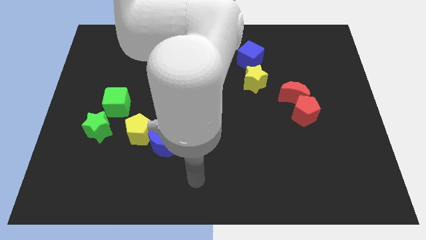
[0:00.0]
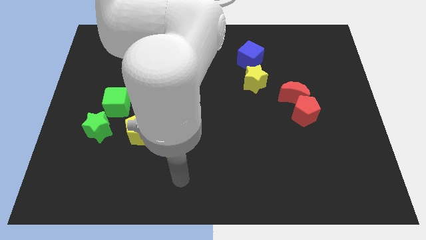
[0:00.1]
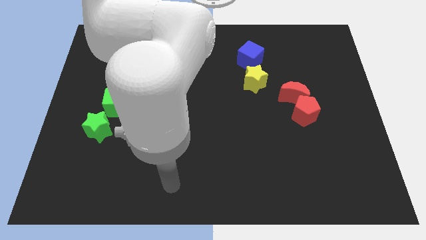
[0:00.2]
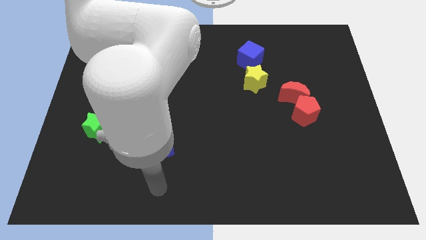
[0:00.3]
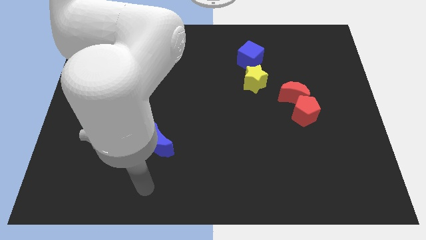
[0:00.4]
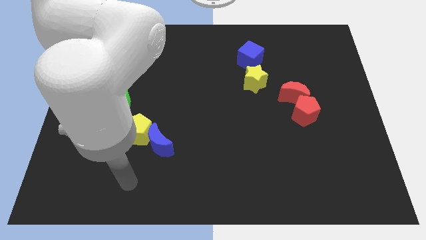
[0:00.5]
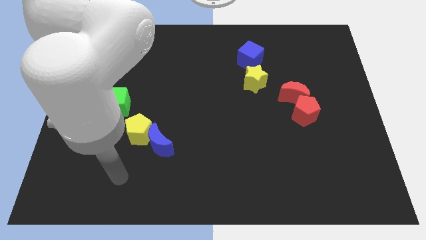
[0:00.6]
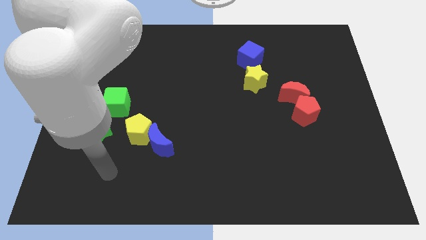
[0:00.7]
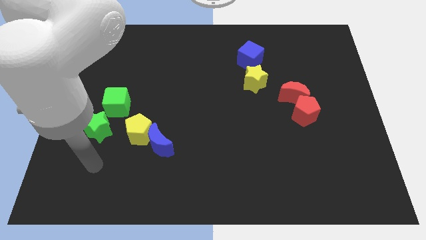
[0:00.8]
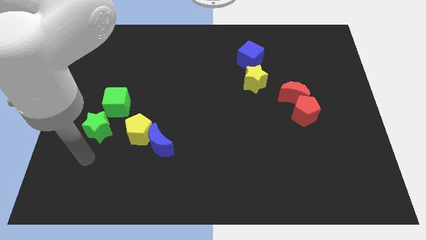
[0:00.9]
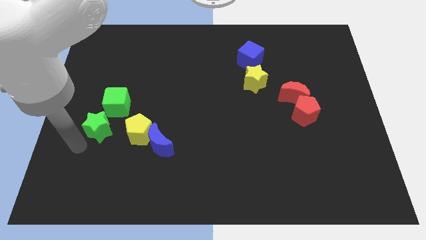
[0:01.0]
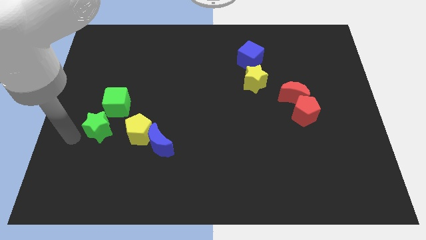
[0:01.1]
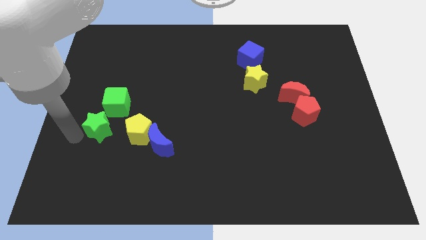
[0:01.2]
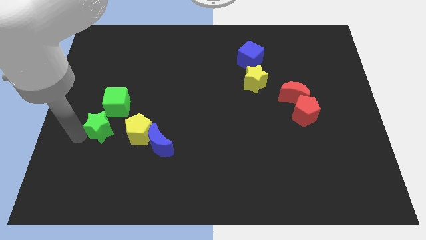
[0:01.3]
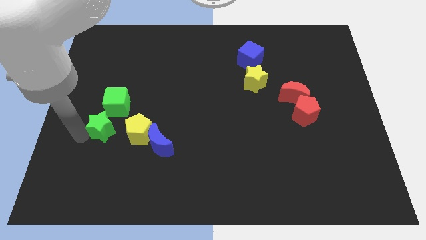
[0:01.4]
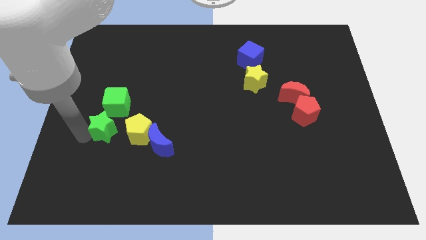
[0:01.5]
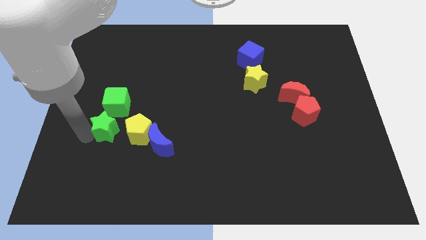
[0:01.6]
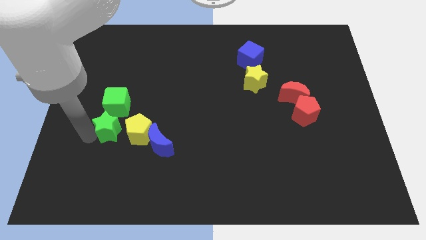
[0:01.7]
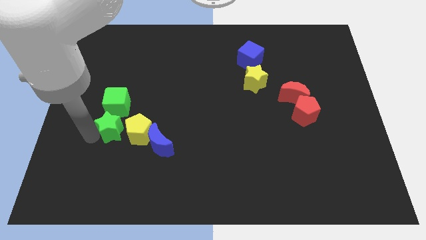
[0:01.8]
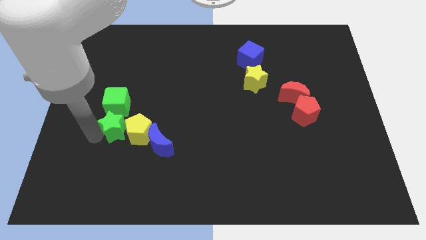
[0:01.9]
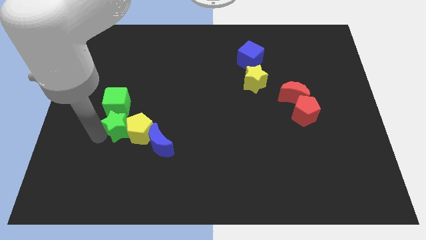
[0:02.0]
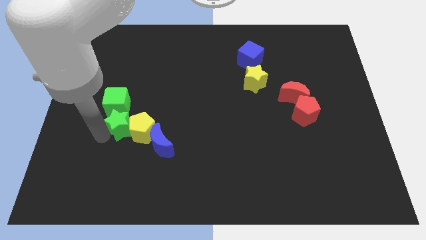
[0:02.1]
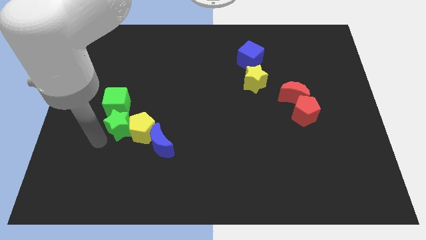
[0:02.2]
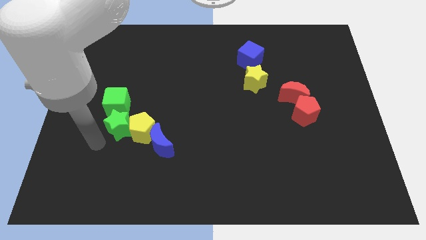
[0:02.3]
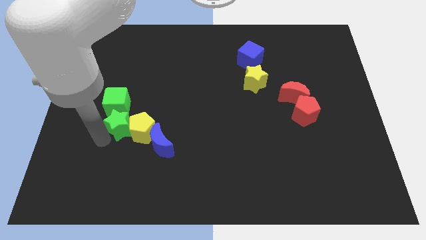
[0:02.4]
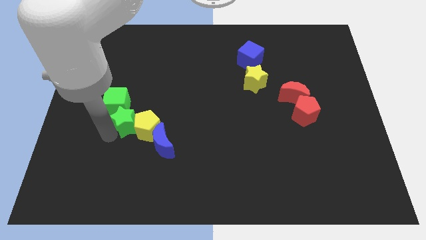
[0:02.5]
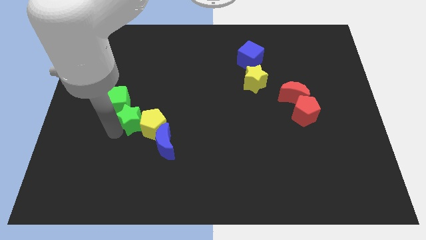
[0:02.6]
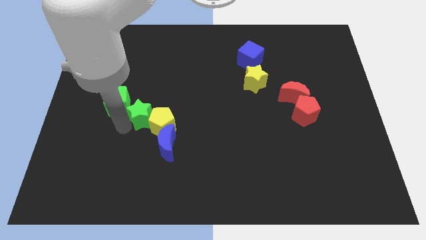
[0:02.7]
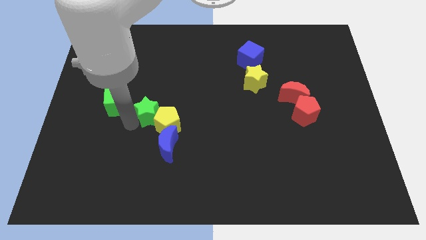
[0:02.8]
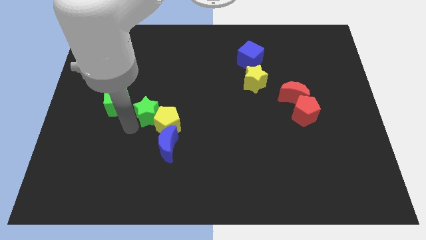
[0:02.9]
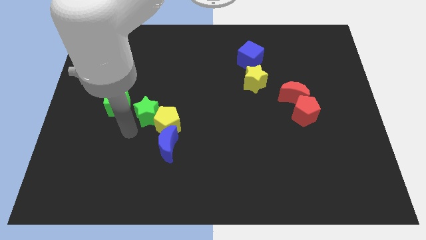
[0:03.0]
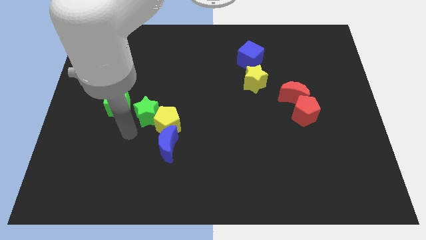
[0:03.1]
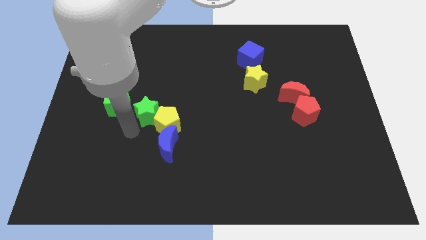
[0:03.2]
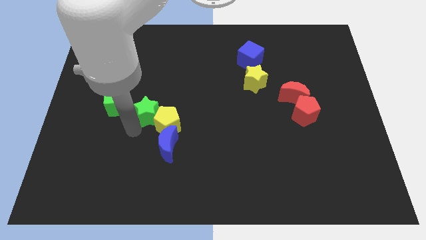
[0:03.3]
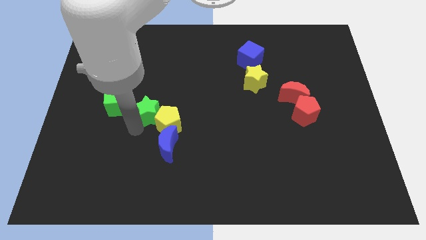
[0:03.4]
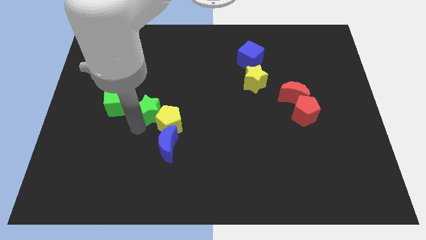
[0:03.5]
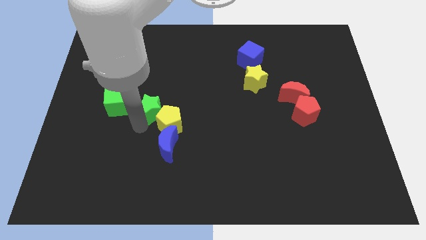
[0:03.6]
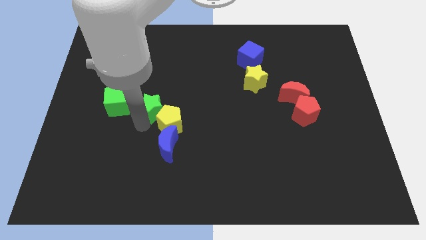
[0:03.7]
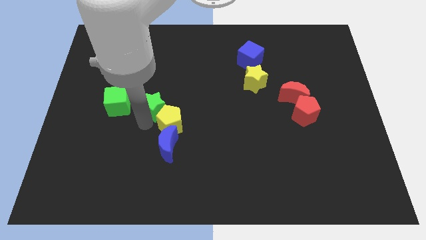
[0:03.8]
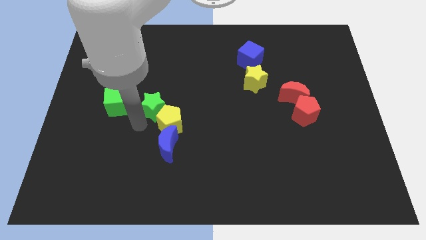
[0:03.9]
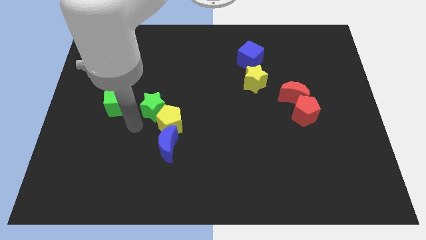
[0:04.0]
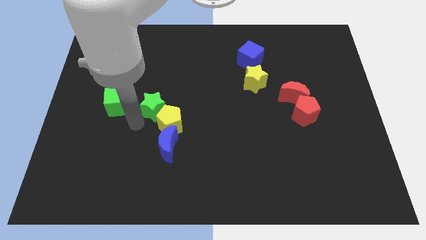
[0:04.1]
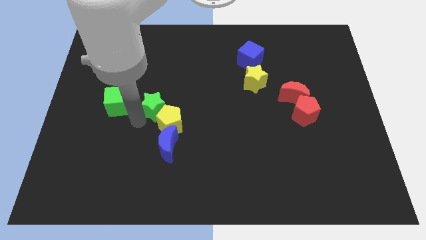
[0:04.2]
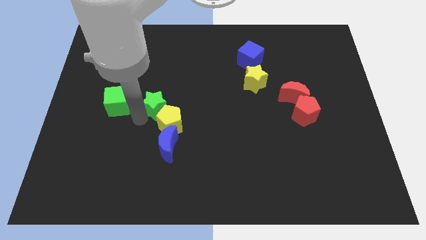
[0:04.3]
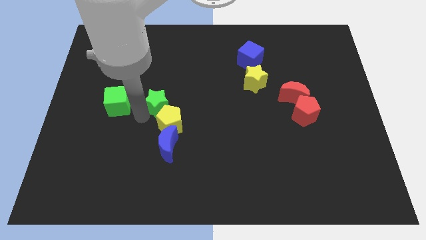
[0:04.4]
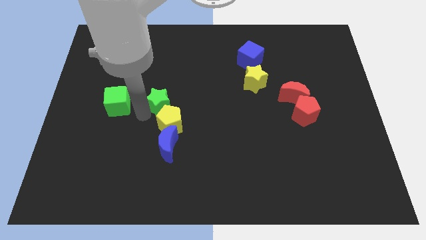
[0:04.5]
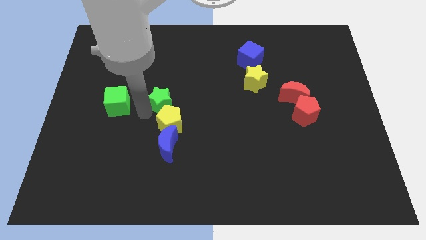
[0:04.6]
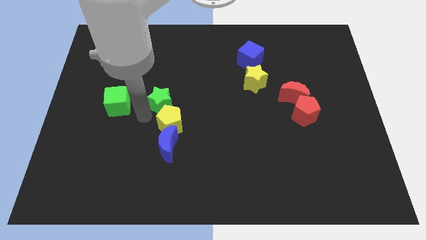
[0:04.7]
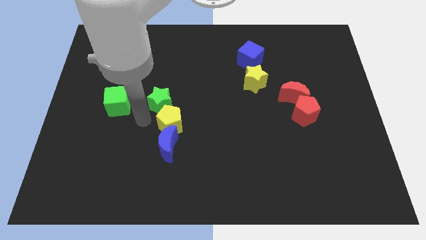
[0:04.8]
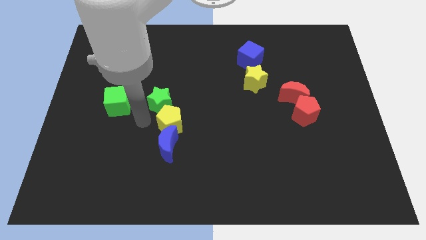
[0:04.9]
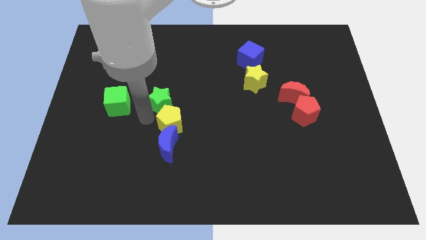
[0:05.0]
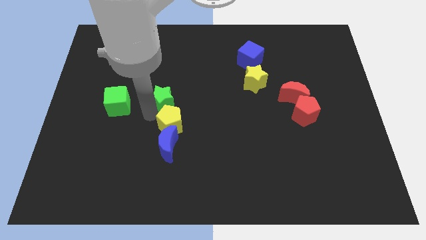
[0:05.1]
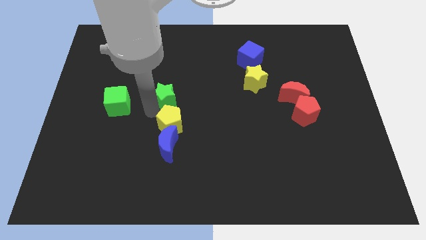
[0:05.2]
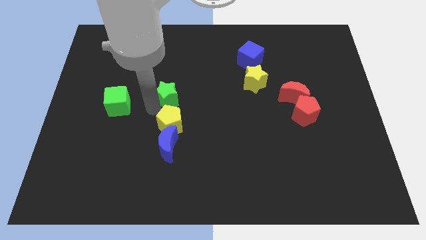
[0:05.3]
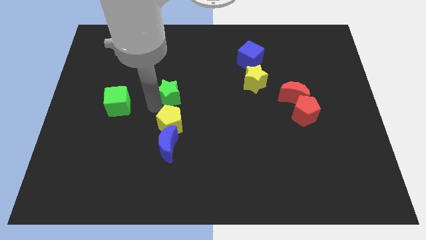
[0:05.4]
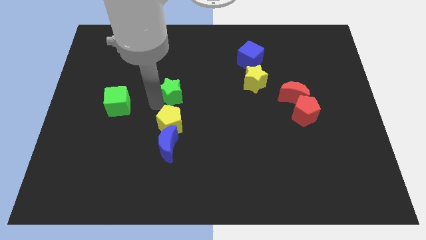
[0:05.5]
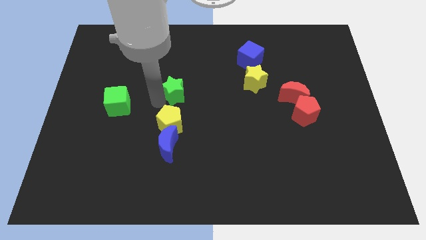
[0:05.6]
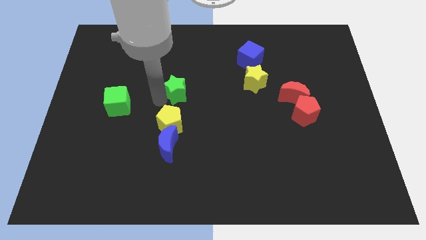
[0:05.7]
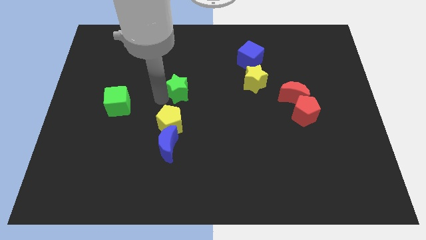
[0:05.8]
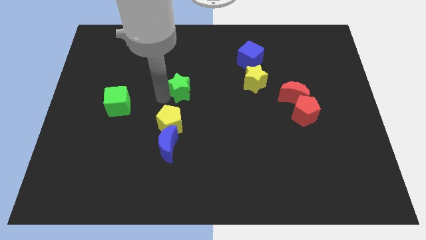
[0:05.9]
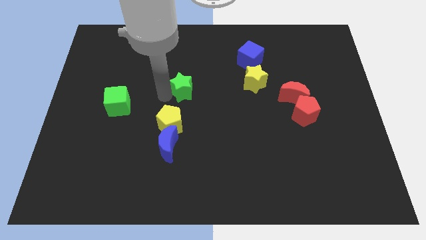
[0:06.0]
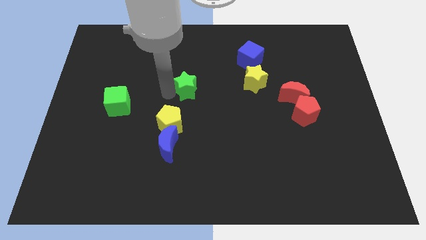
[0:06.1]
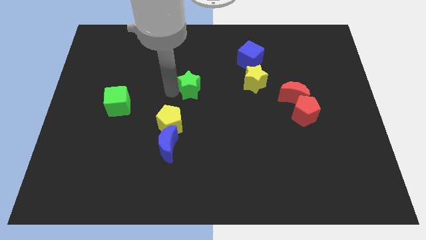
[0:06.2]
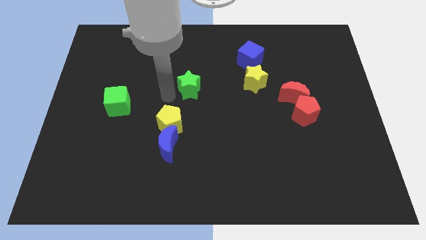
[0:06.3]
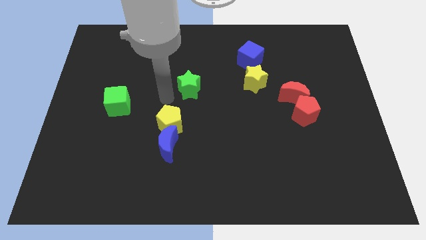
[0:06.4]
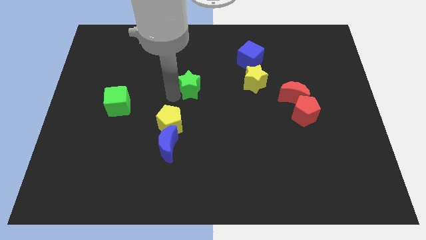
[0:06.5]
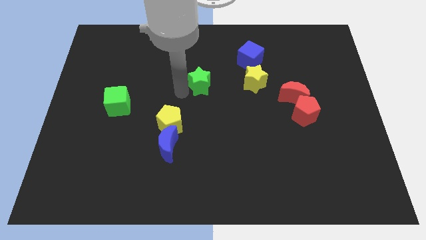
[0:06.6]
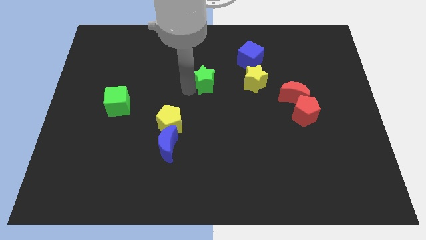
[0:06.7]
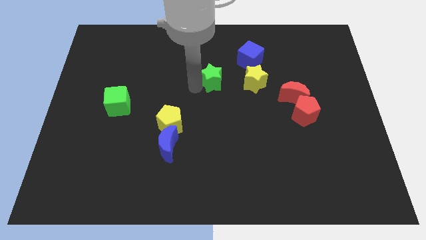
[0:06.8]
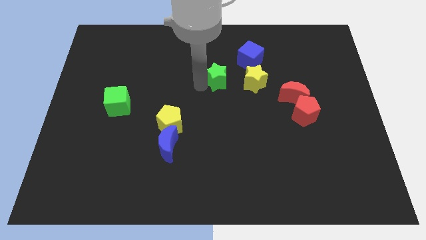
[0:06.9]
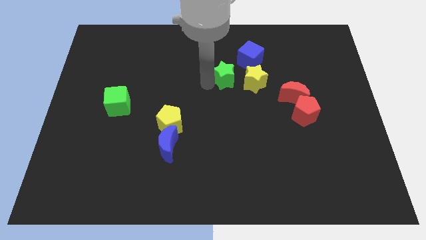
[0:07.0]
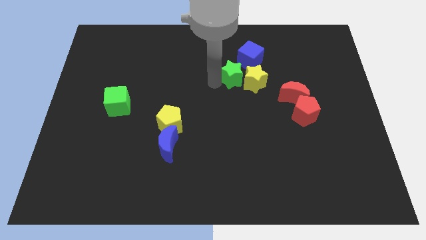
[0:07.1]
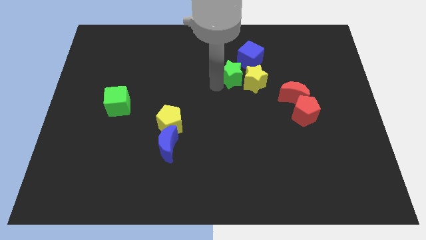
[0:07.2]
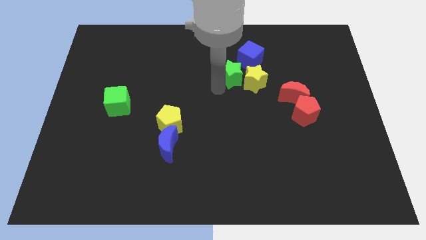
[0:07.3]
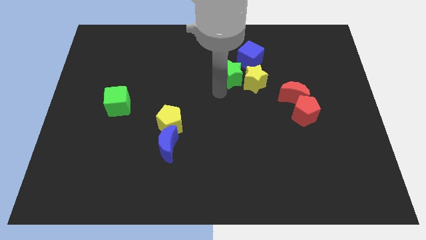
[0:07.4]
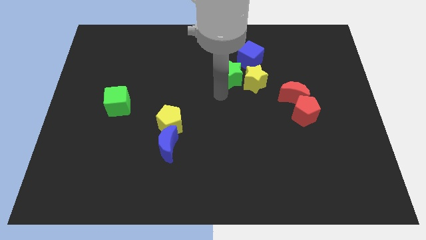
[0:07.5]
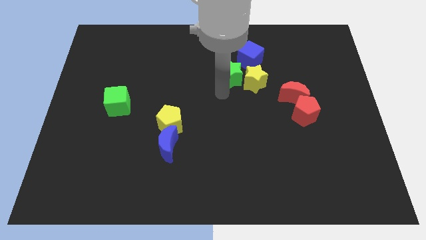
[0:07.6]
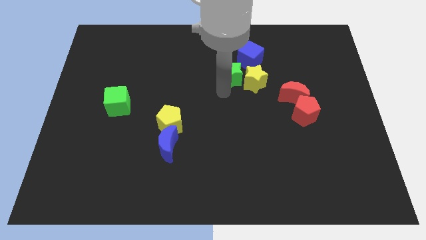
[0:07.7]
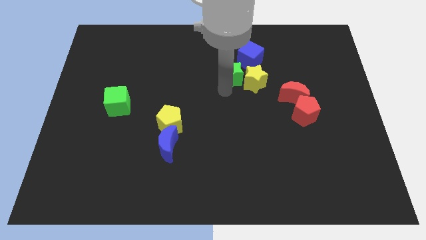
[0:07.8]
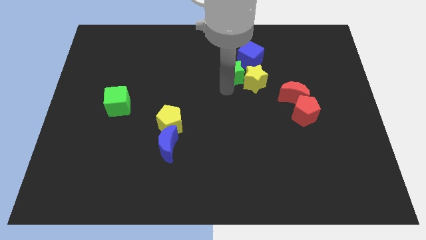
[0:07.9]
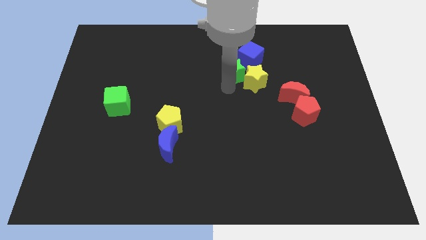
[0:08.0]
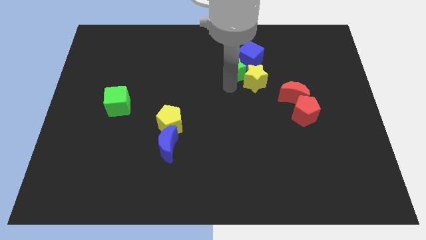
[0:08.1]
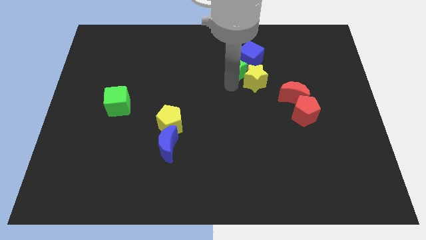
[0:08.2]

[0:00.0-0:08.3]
slide the green star to the blue cube
